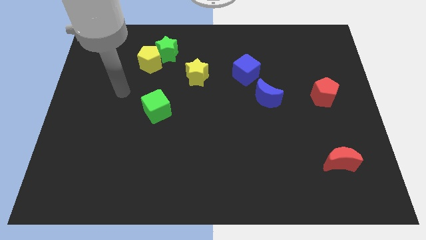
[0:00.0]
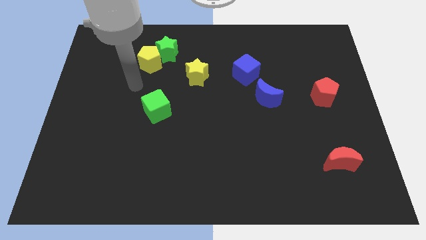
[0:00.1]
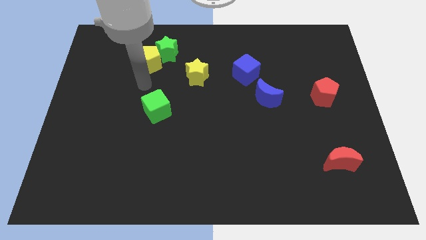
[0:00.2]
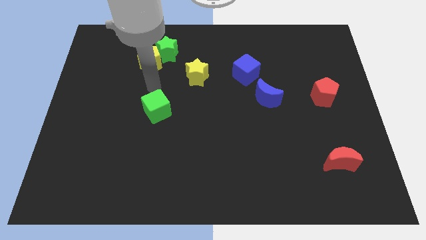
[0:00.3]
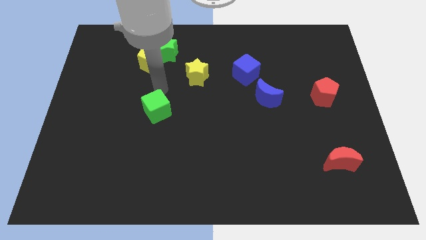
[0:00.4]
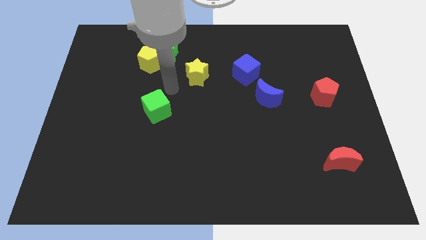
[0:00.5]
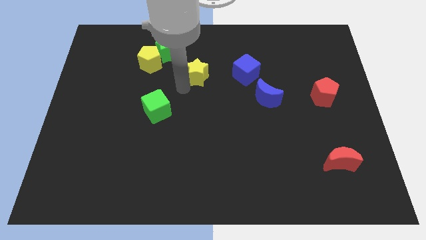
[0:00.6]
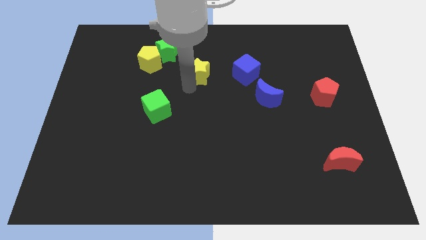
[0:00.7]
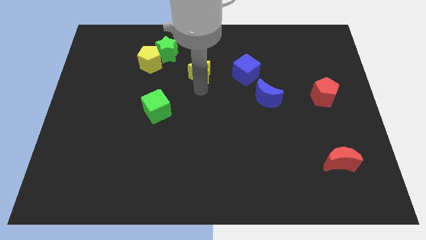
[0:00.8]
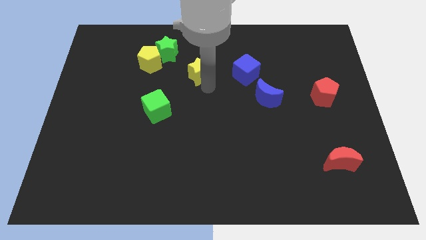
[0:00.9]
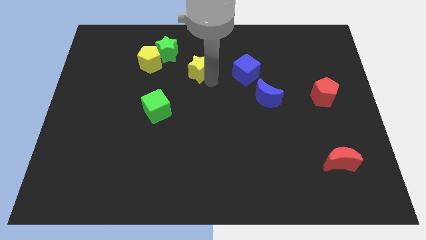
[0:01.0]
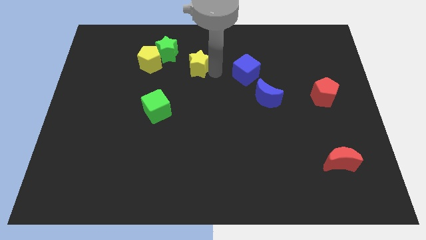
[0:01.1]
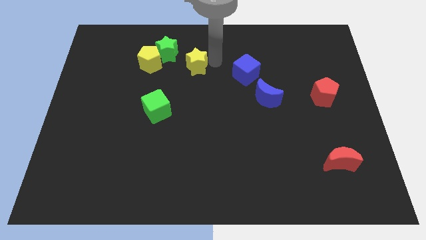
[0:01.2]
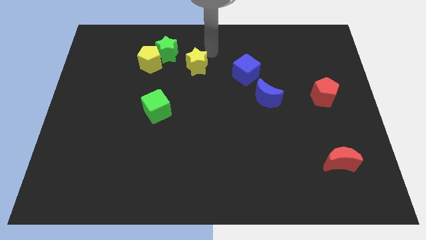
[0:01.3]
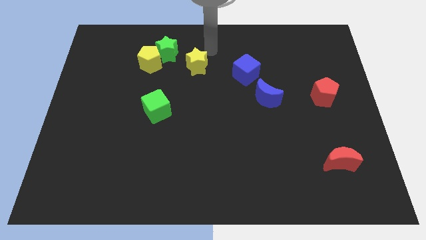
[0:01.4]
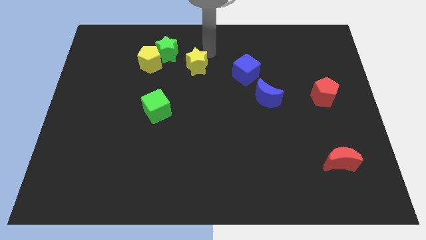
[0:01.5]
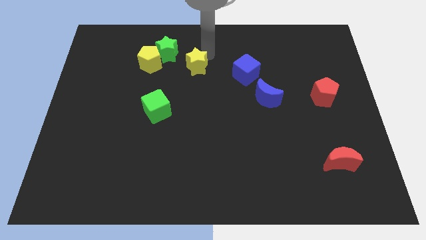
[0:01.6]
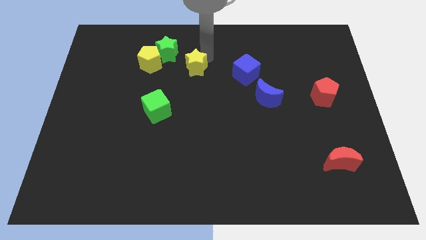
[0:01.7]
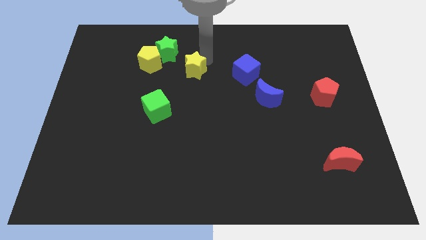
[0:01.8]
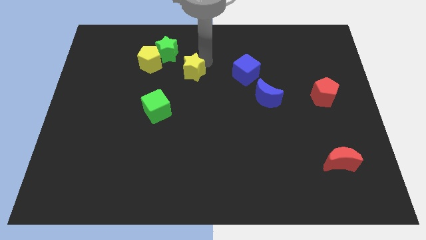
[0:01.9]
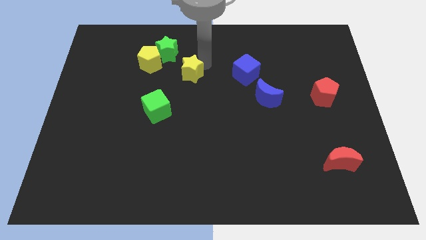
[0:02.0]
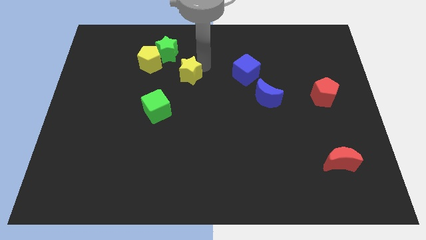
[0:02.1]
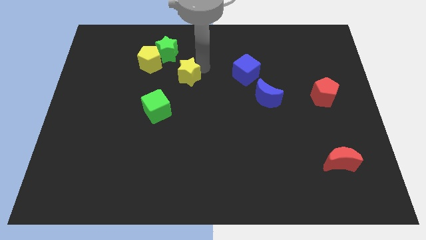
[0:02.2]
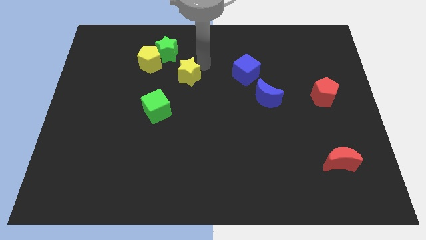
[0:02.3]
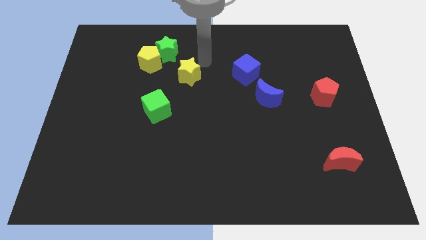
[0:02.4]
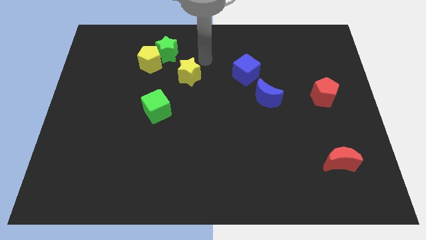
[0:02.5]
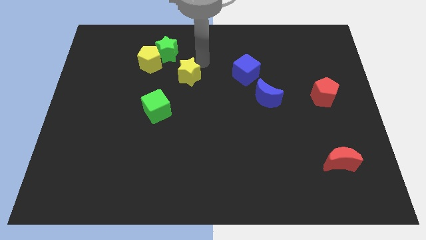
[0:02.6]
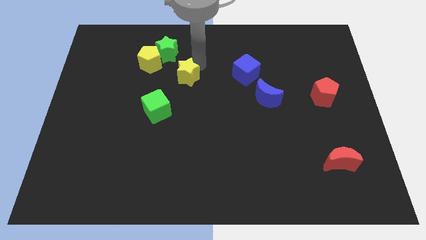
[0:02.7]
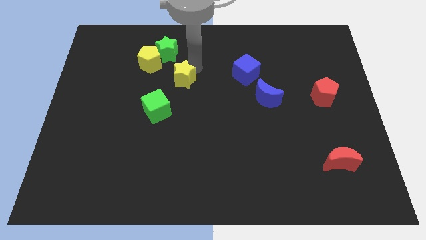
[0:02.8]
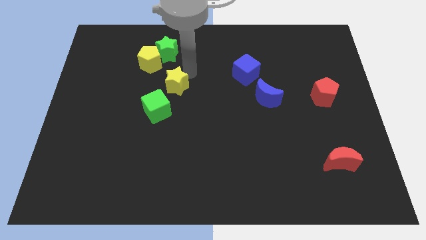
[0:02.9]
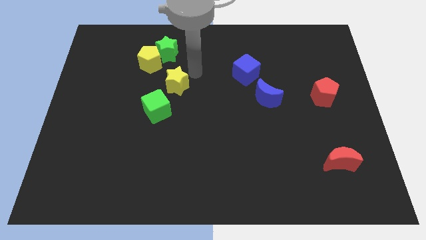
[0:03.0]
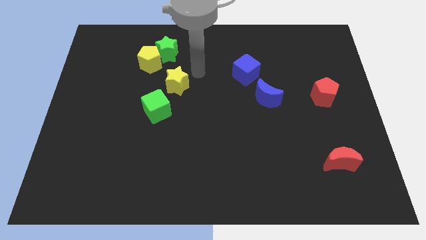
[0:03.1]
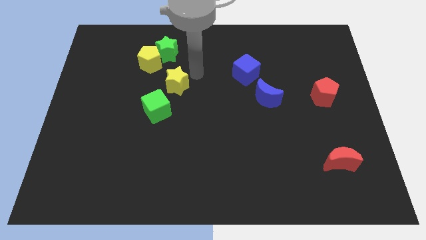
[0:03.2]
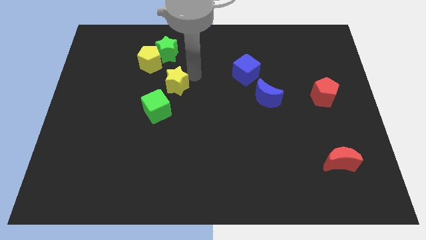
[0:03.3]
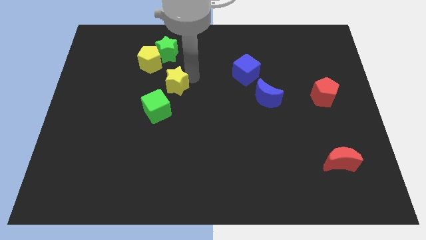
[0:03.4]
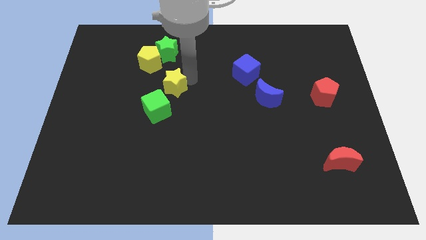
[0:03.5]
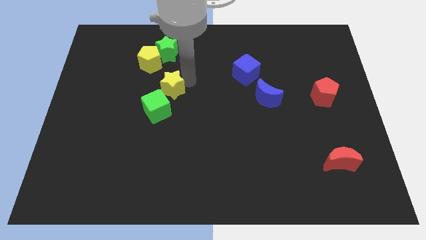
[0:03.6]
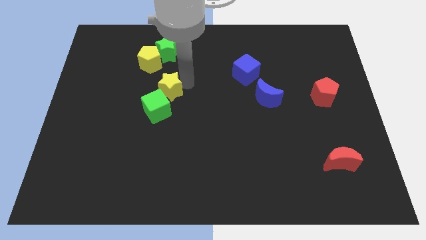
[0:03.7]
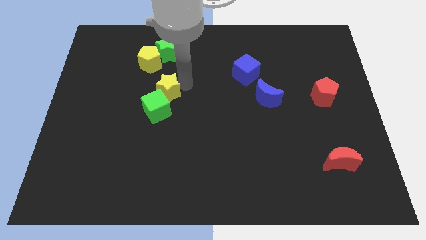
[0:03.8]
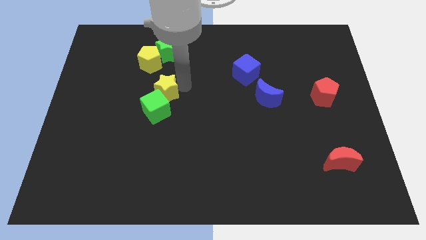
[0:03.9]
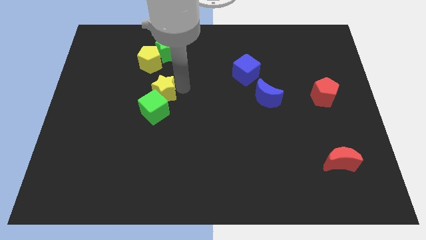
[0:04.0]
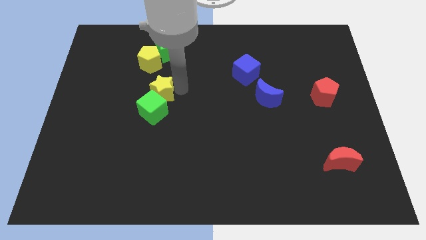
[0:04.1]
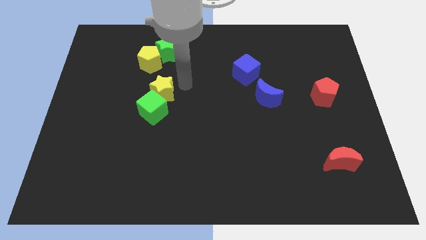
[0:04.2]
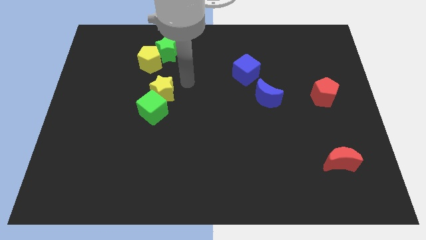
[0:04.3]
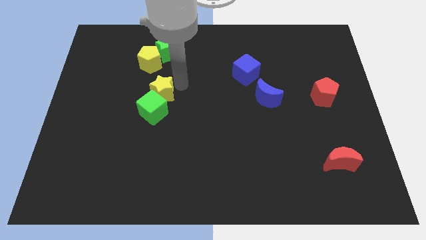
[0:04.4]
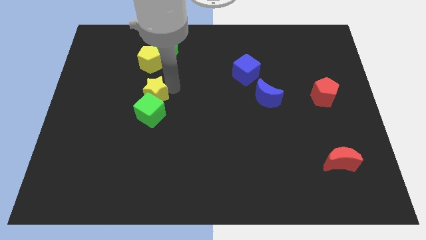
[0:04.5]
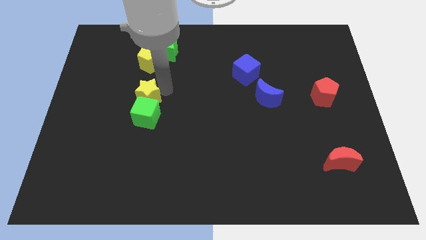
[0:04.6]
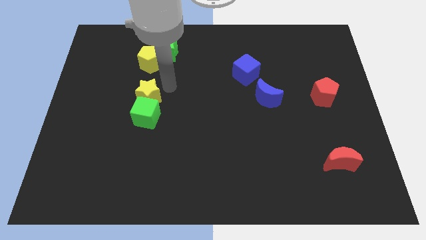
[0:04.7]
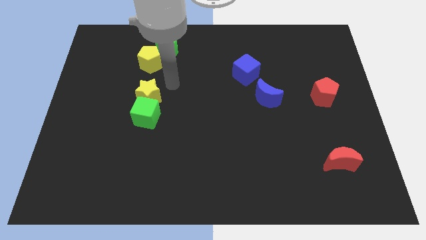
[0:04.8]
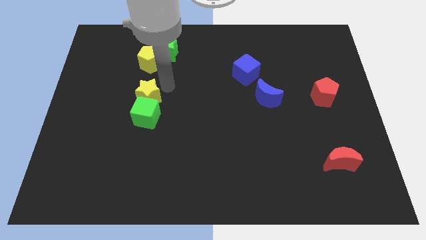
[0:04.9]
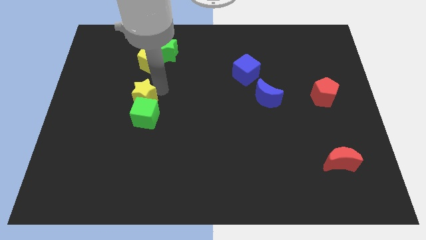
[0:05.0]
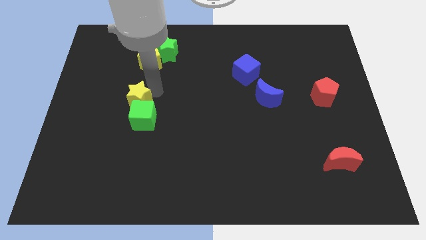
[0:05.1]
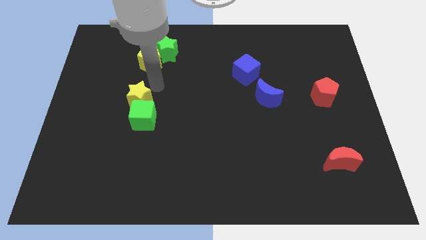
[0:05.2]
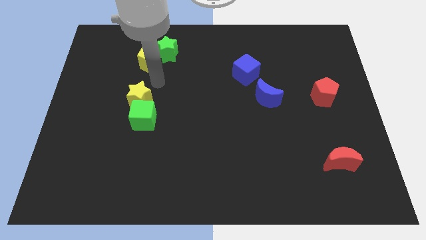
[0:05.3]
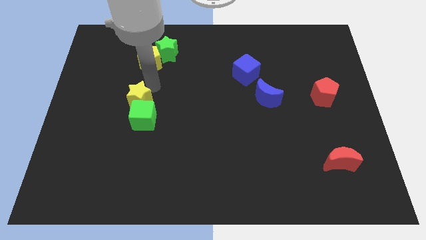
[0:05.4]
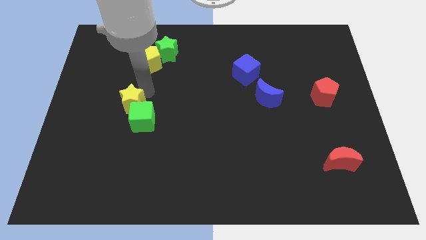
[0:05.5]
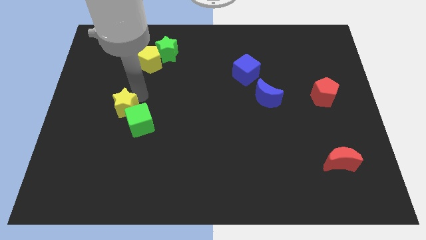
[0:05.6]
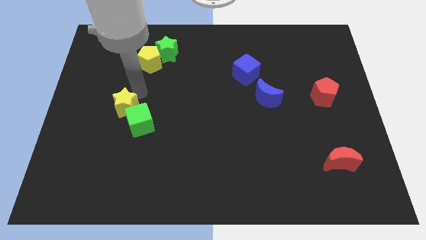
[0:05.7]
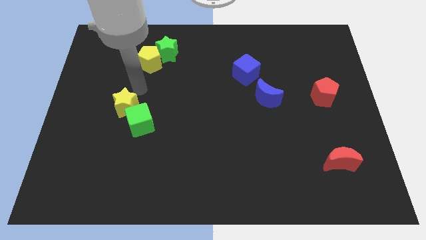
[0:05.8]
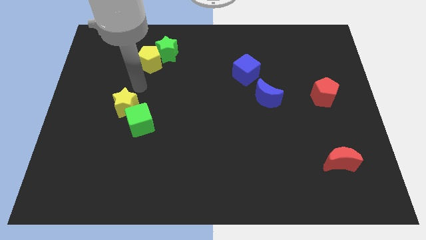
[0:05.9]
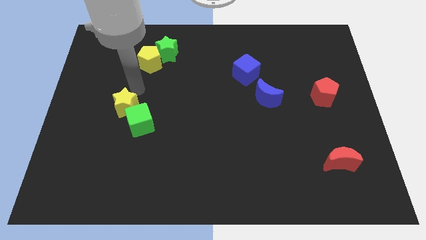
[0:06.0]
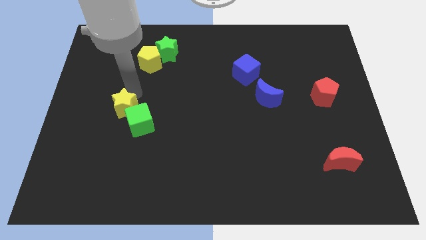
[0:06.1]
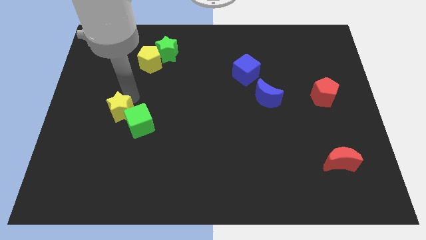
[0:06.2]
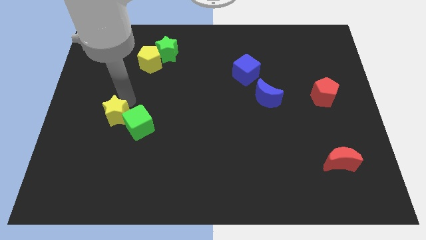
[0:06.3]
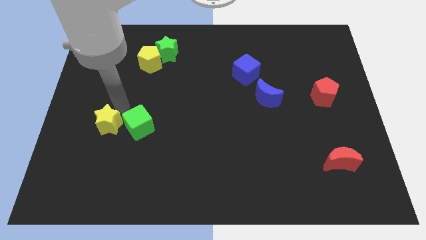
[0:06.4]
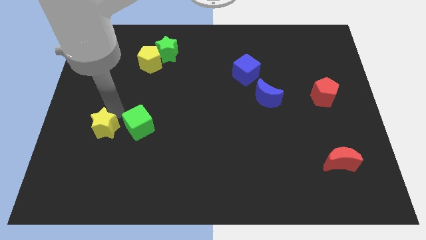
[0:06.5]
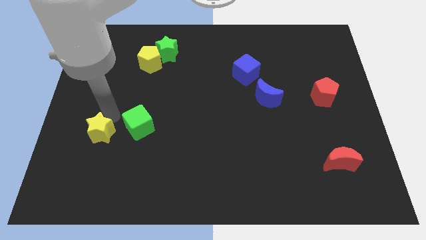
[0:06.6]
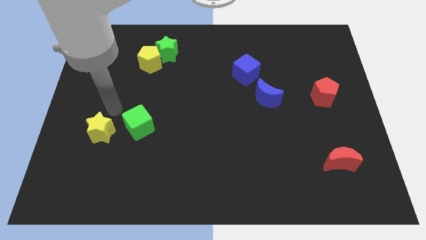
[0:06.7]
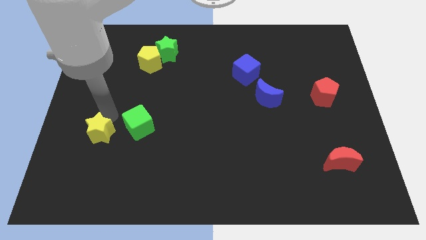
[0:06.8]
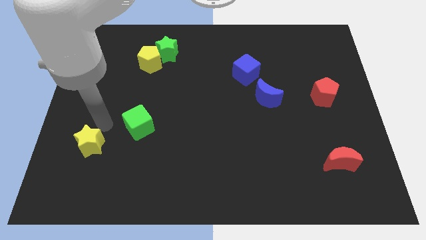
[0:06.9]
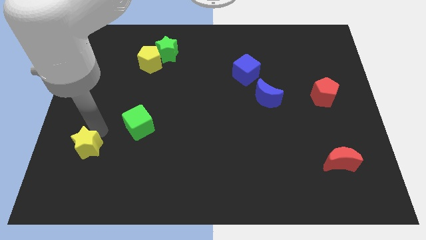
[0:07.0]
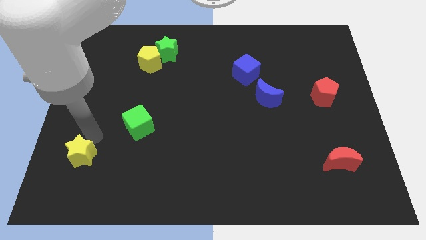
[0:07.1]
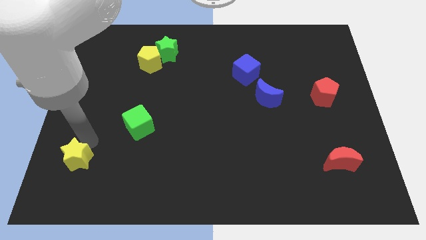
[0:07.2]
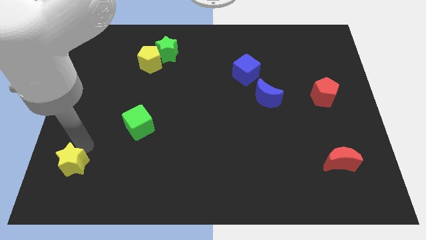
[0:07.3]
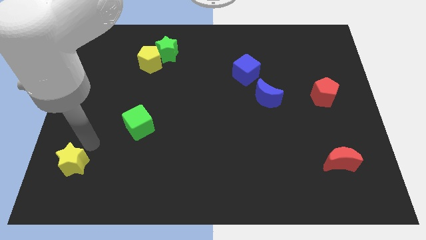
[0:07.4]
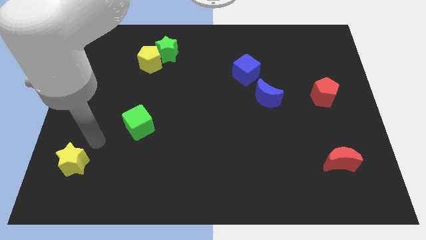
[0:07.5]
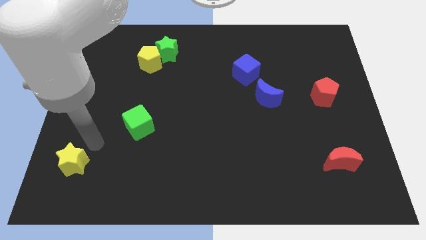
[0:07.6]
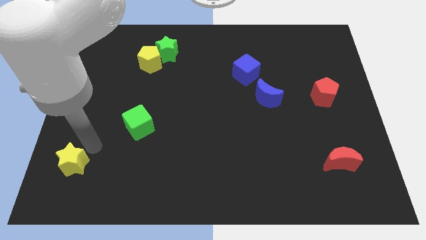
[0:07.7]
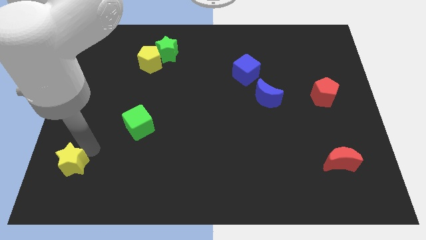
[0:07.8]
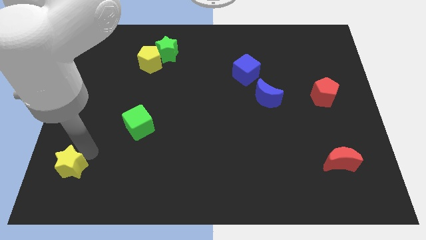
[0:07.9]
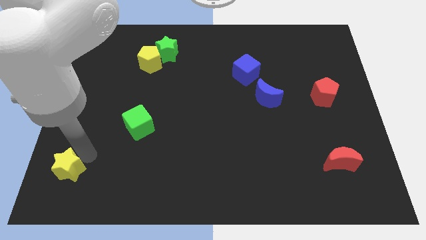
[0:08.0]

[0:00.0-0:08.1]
move the yellow star to the bottom left of the board
